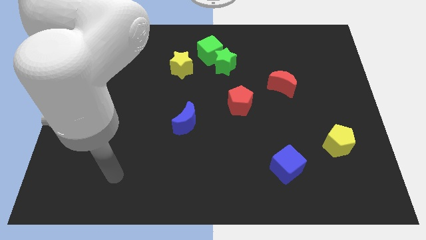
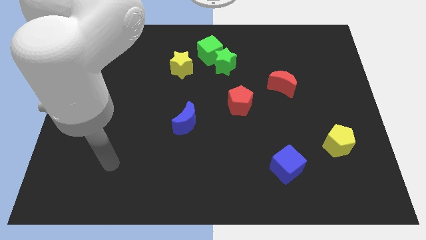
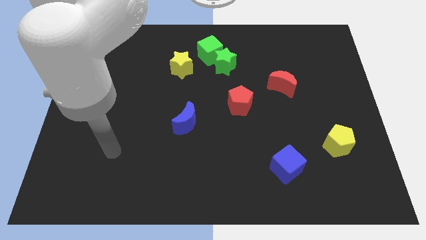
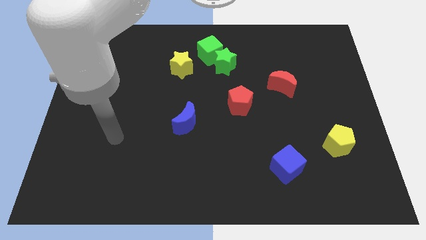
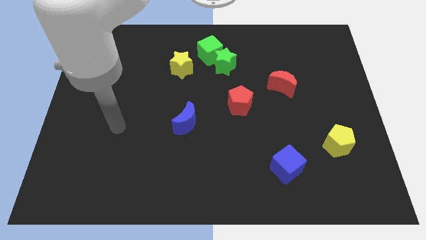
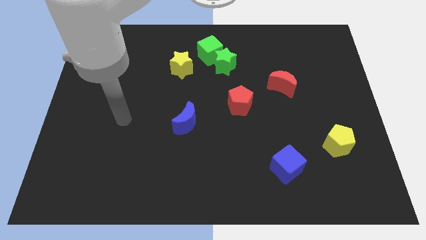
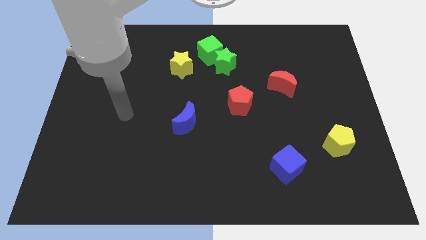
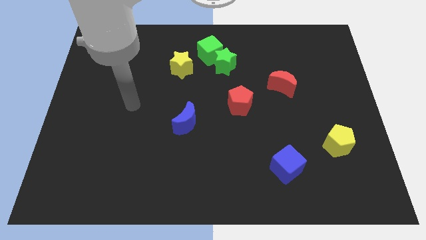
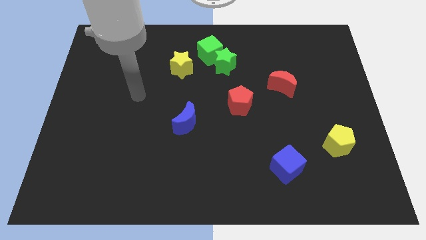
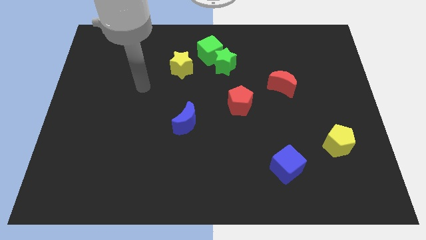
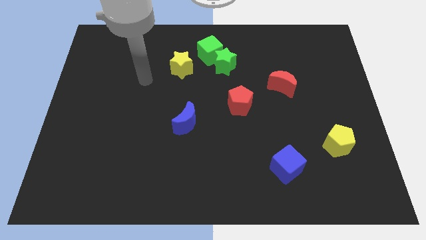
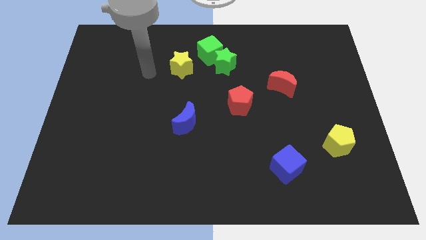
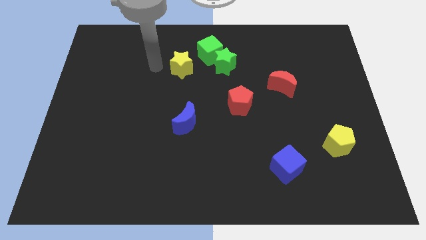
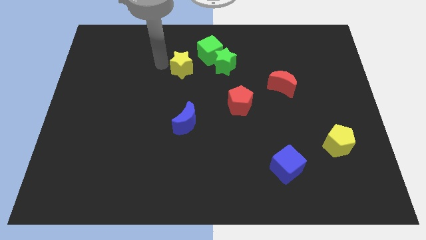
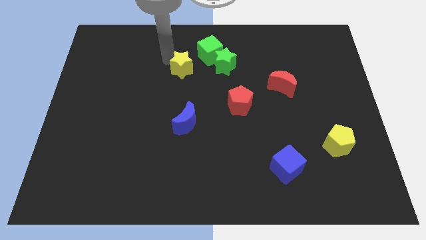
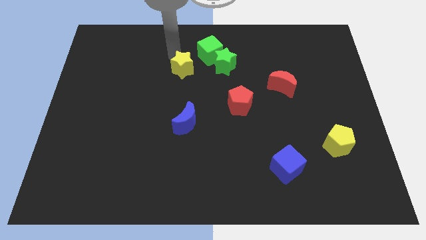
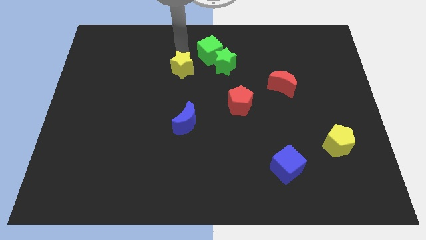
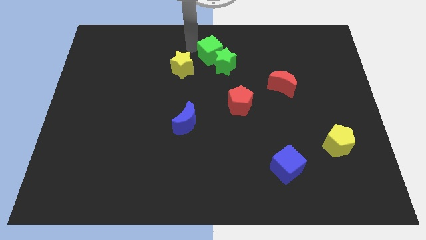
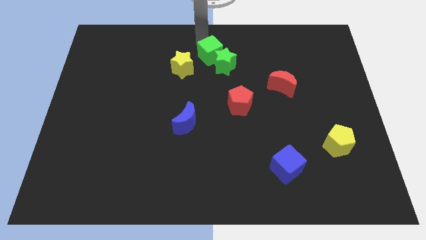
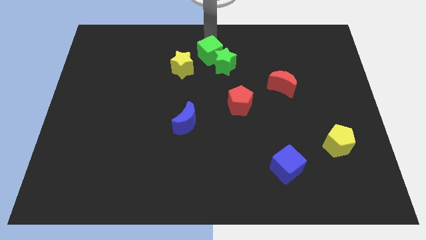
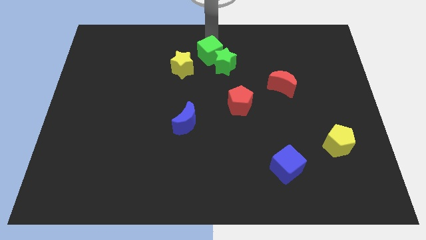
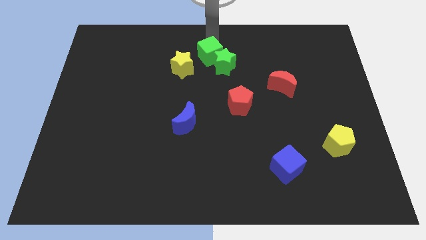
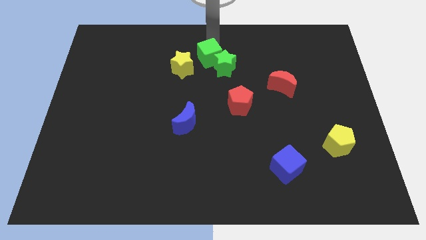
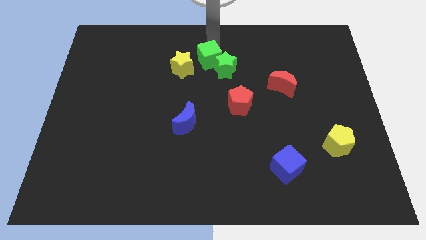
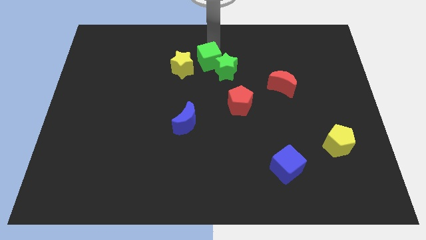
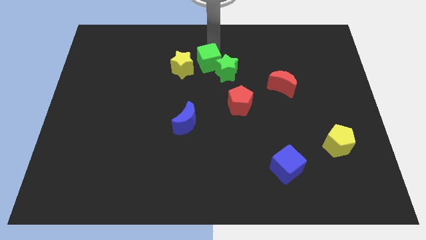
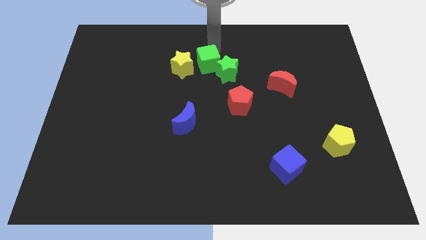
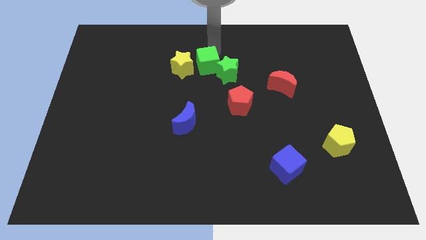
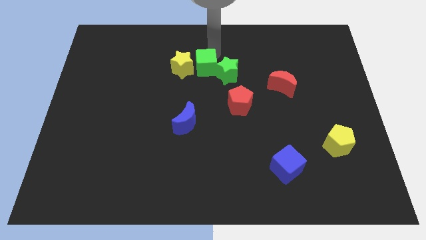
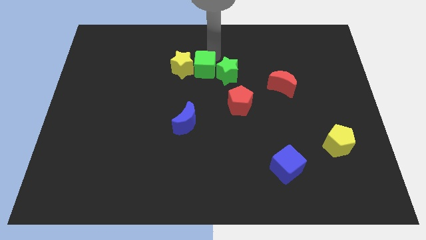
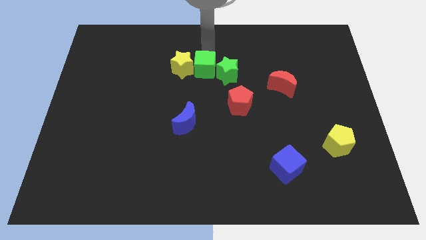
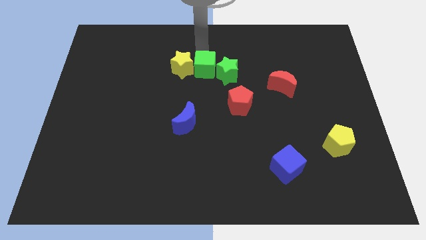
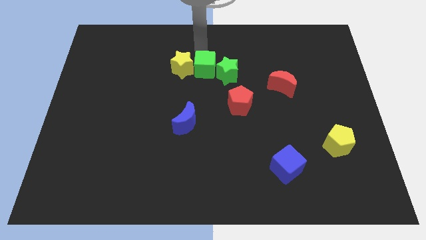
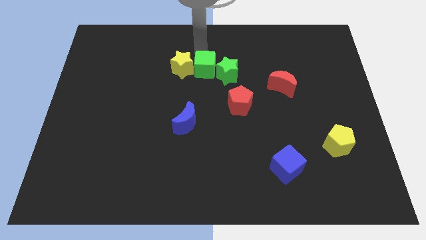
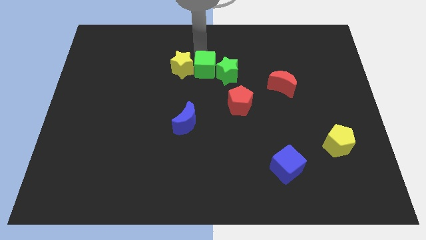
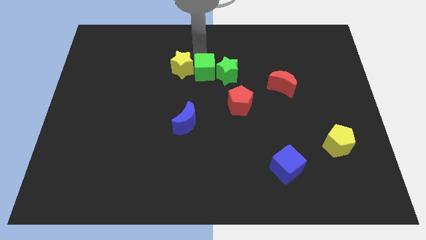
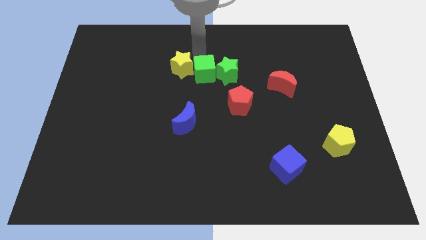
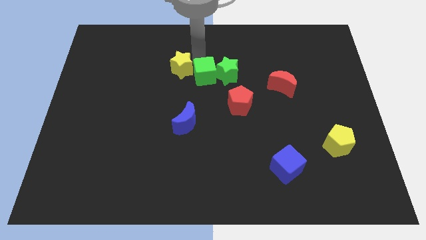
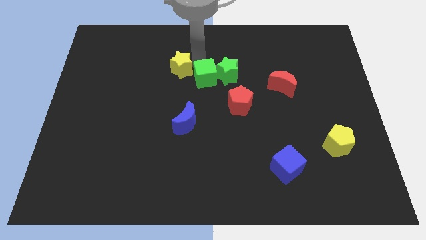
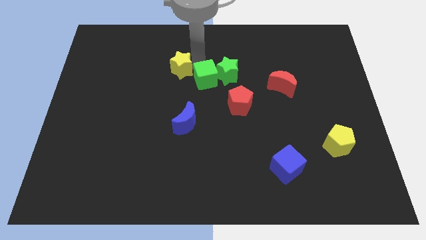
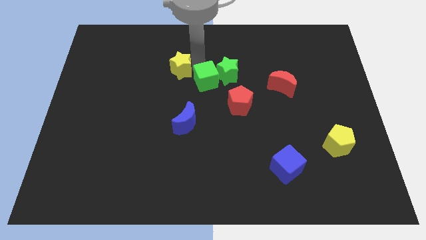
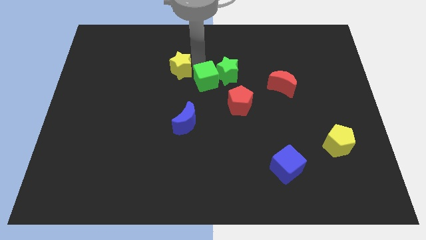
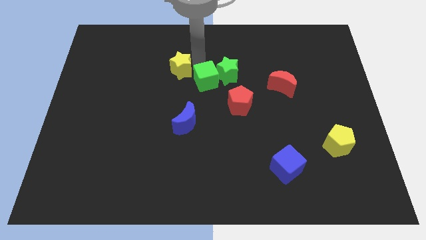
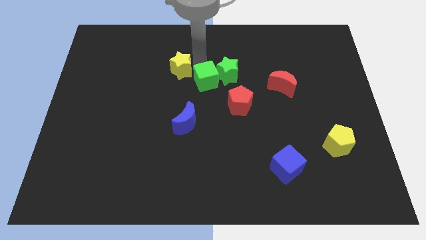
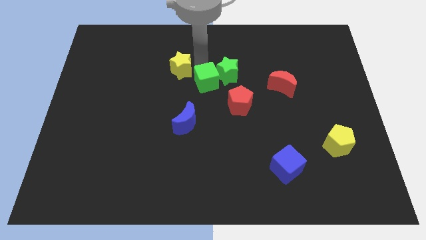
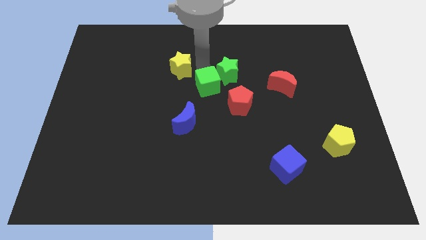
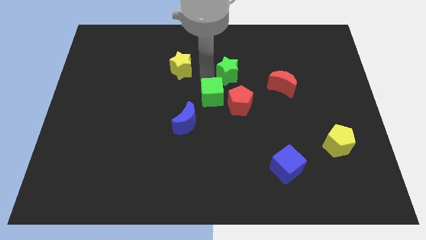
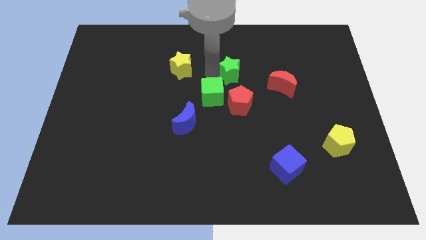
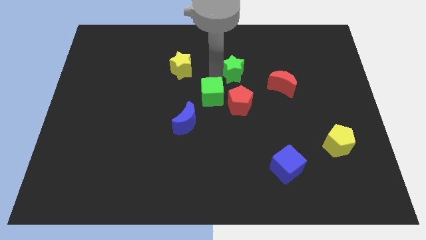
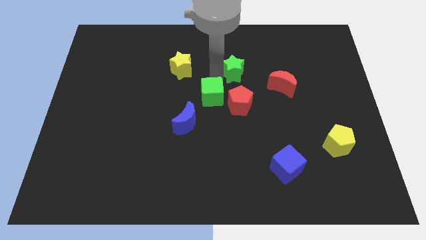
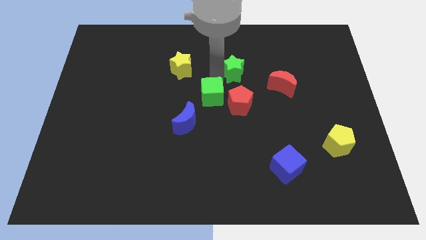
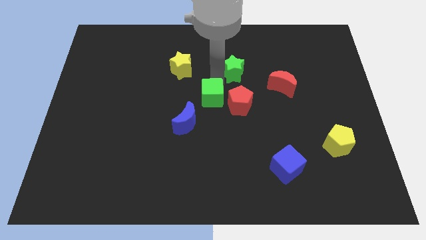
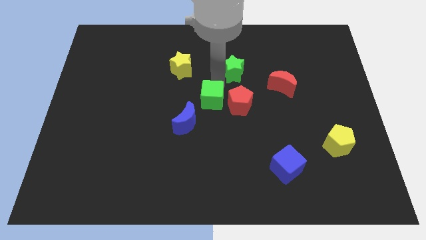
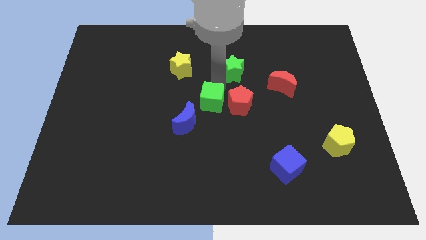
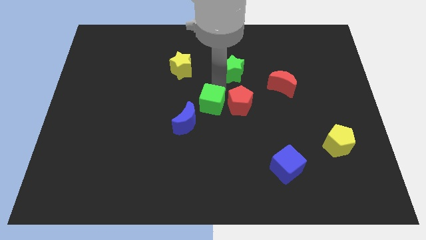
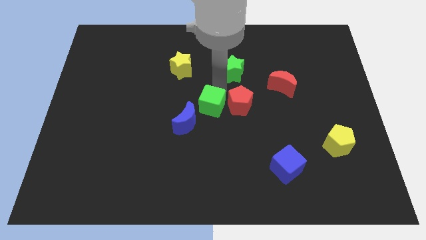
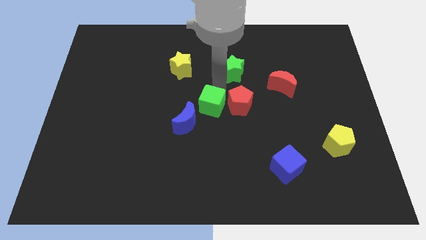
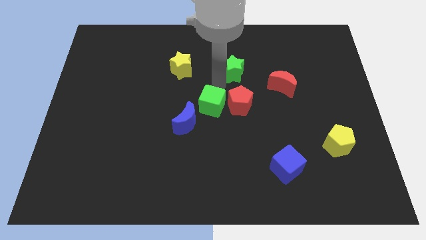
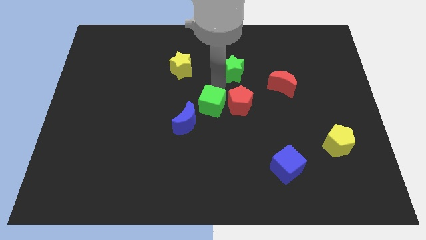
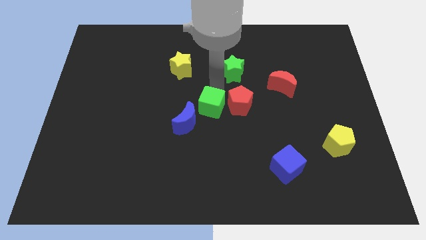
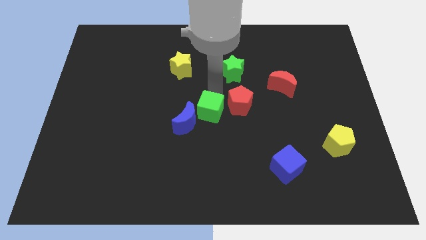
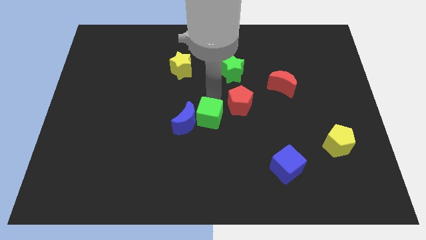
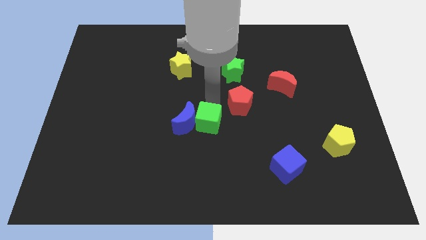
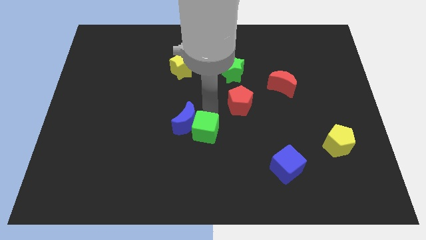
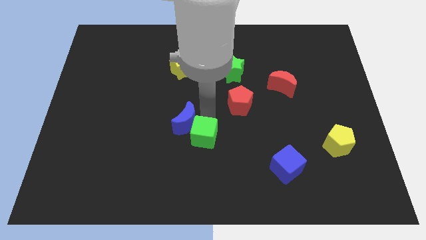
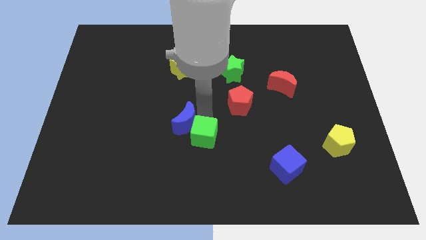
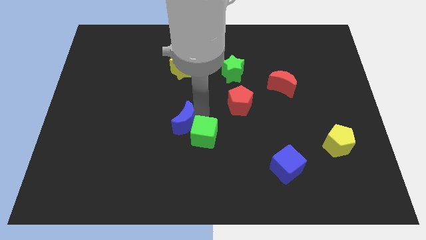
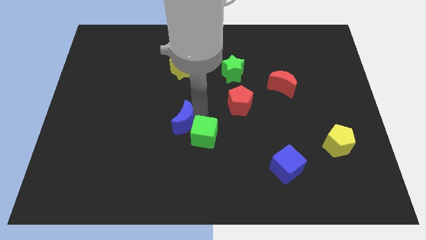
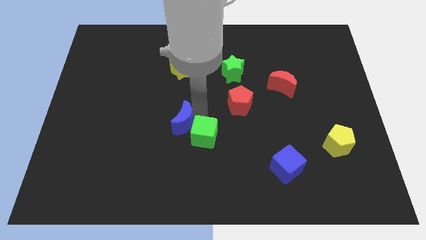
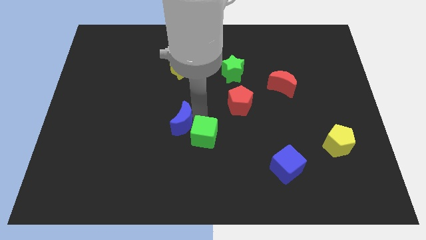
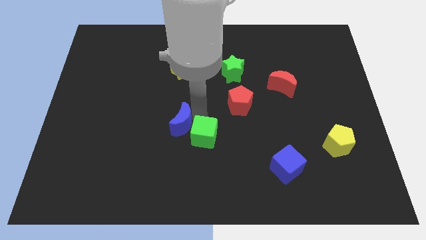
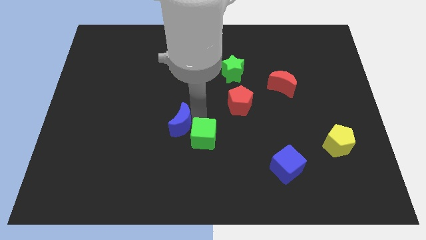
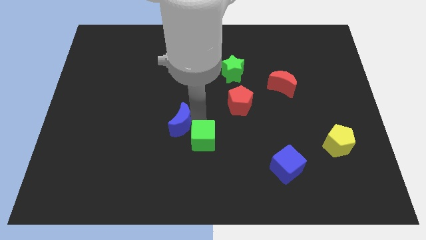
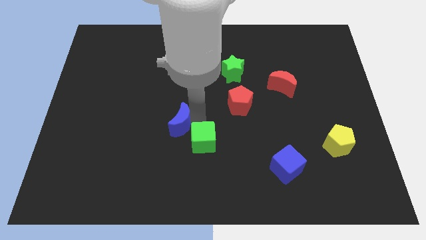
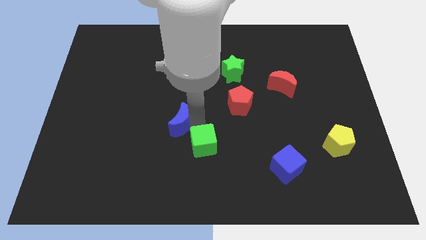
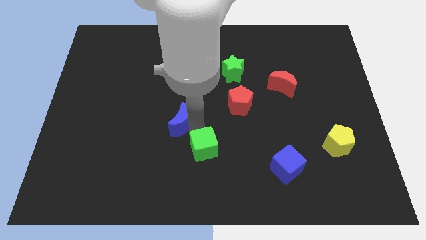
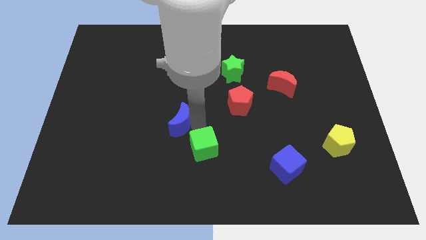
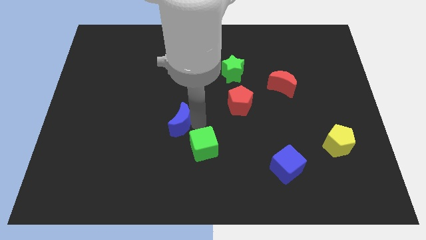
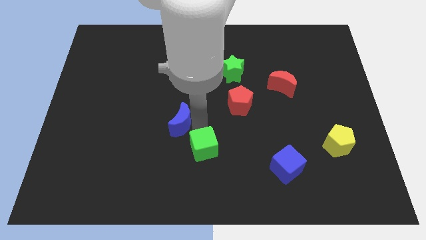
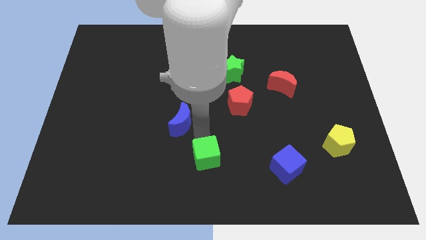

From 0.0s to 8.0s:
push the green cube to the bottom side
